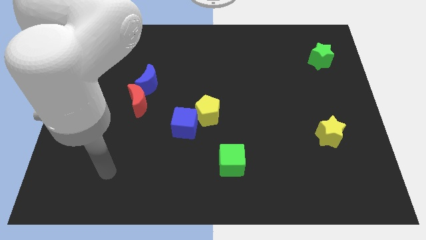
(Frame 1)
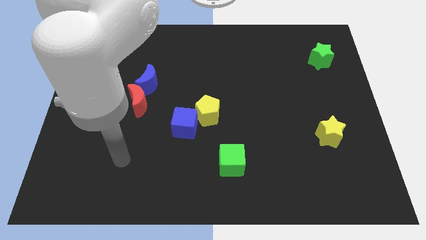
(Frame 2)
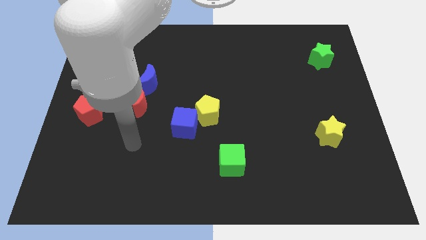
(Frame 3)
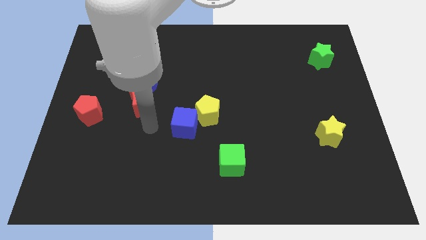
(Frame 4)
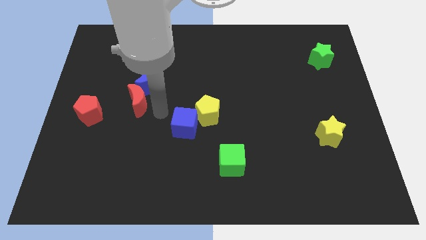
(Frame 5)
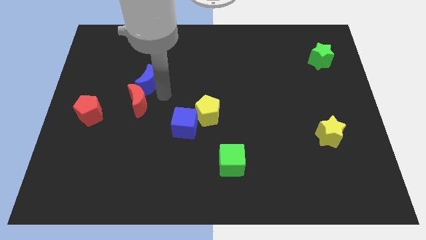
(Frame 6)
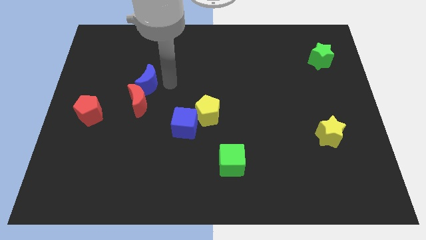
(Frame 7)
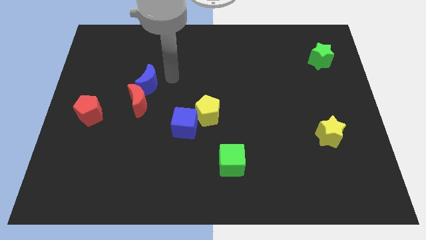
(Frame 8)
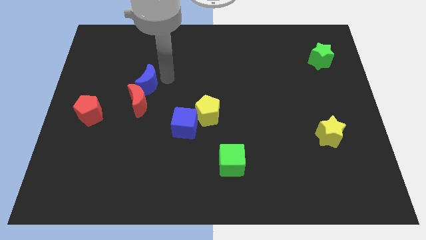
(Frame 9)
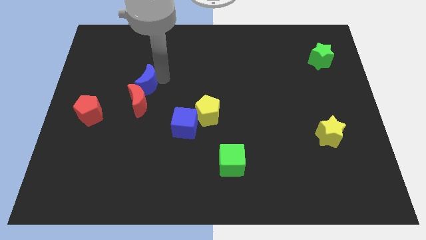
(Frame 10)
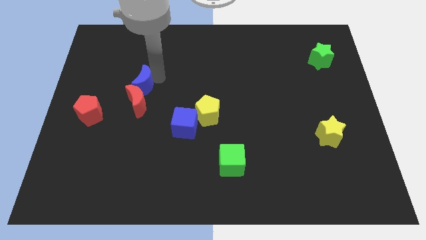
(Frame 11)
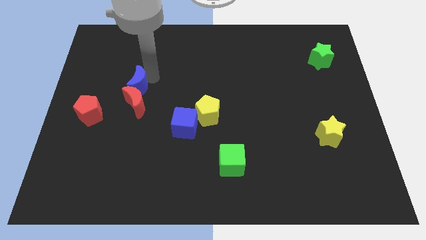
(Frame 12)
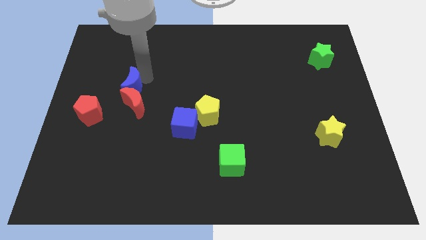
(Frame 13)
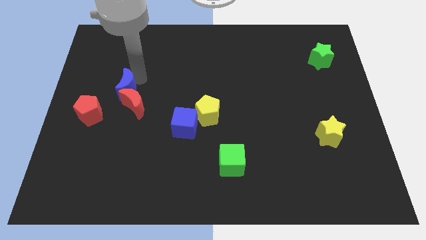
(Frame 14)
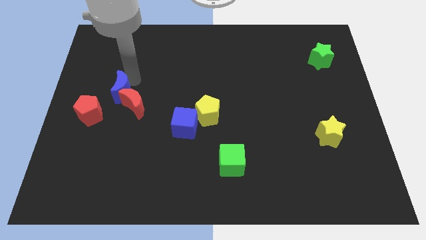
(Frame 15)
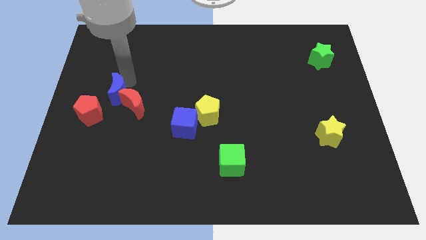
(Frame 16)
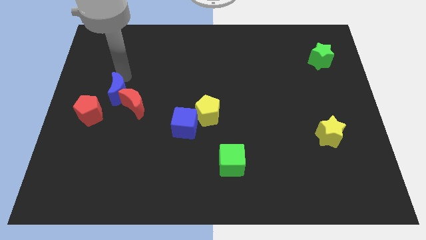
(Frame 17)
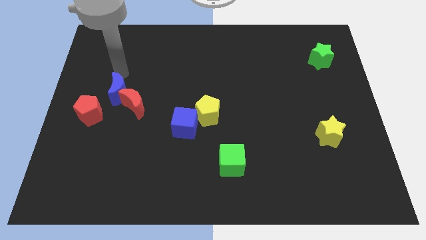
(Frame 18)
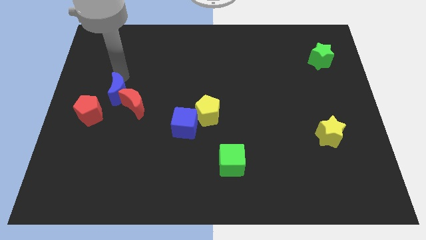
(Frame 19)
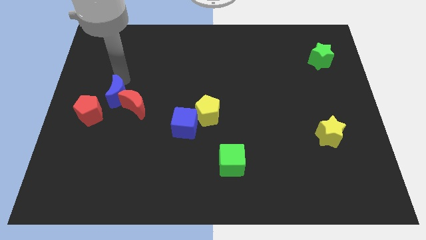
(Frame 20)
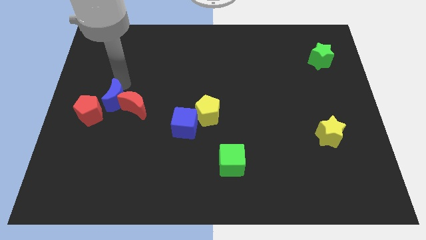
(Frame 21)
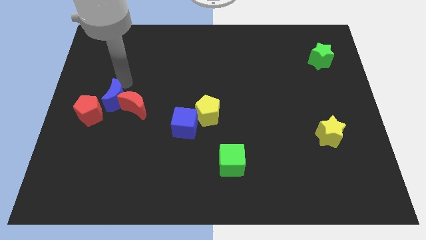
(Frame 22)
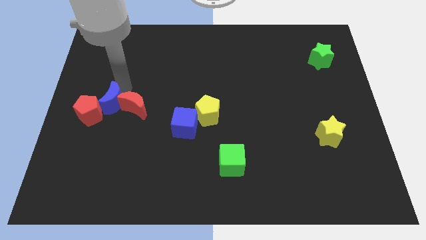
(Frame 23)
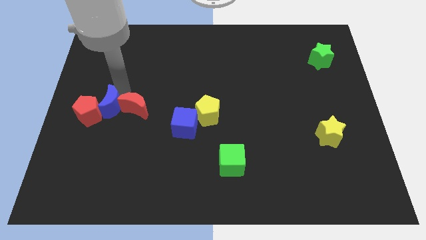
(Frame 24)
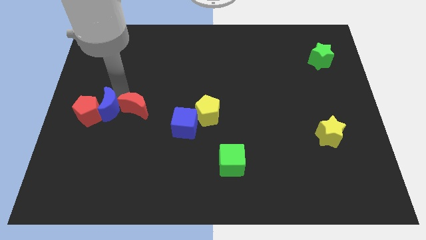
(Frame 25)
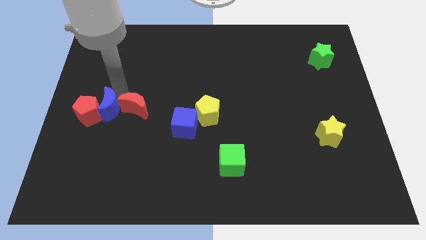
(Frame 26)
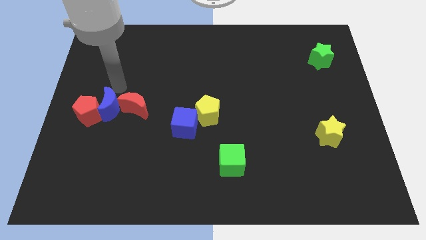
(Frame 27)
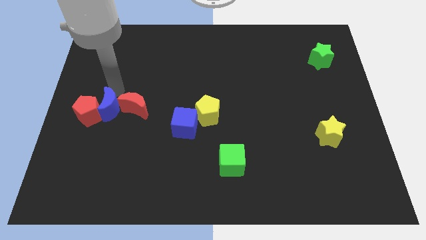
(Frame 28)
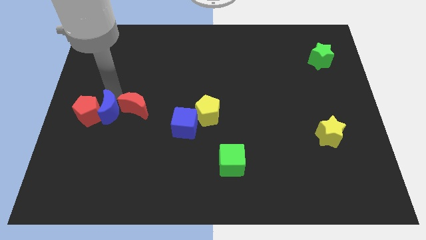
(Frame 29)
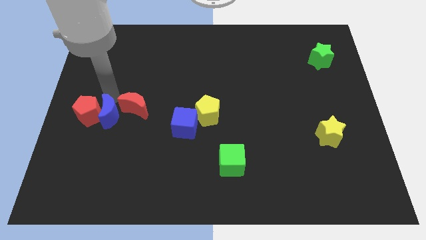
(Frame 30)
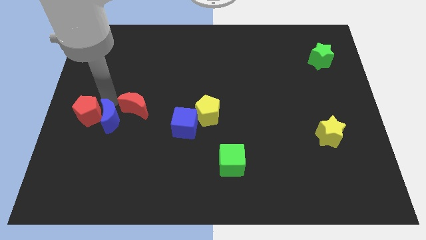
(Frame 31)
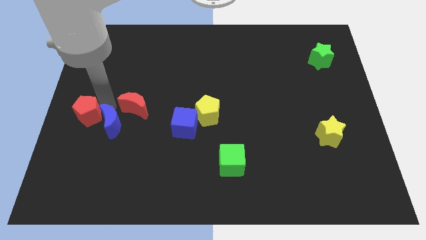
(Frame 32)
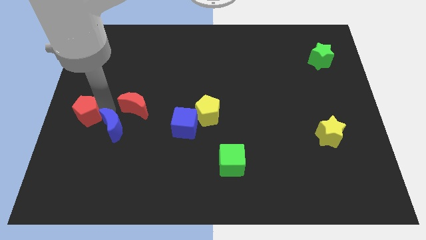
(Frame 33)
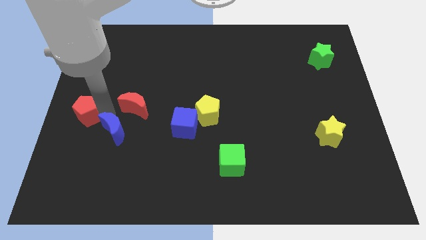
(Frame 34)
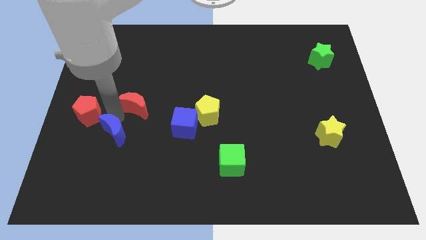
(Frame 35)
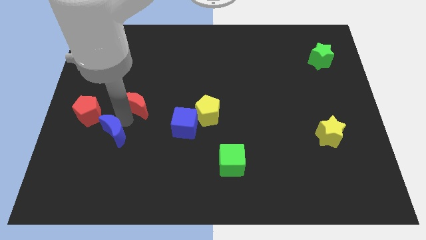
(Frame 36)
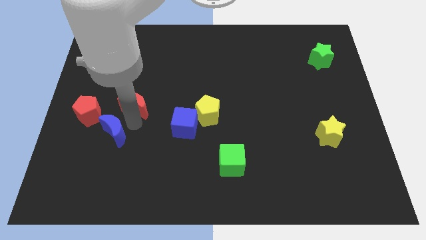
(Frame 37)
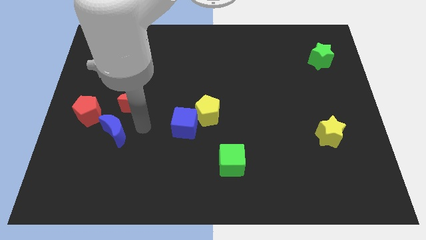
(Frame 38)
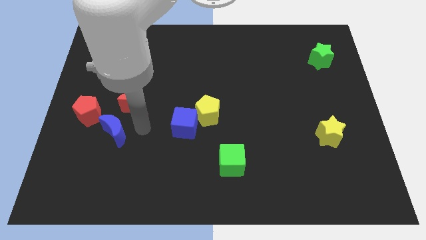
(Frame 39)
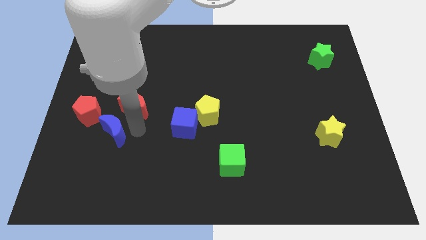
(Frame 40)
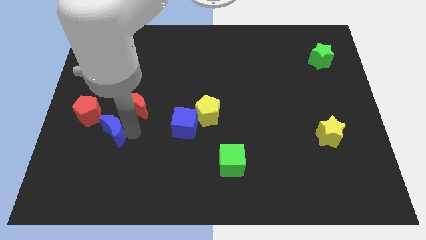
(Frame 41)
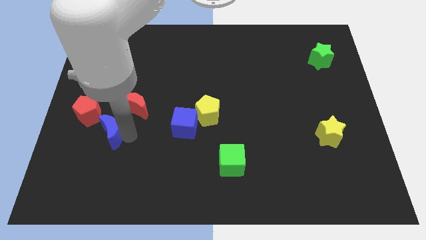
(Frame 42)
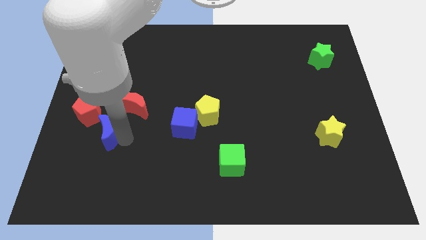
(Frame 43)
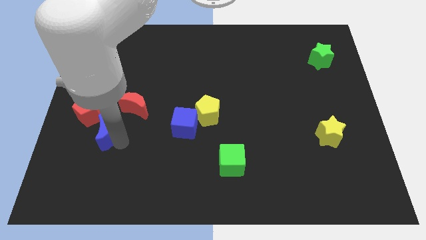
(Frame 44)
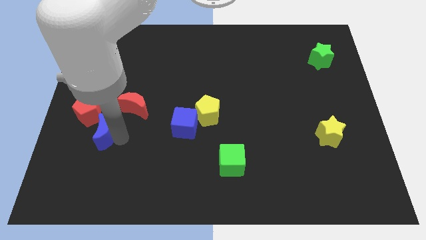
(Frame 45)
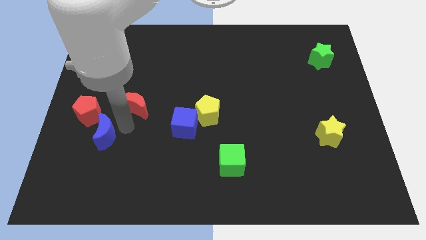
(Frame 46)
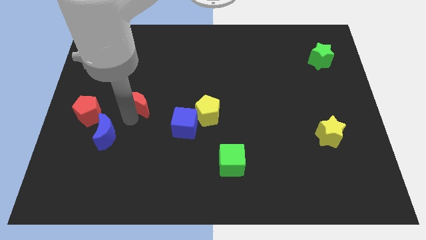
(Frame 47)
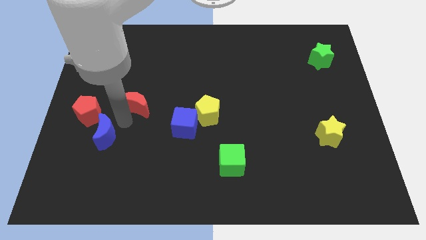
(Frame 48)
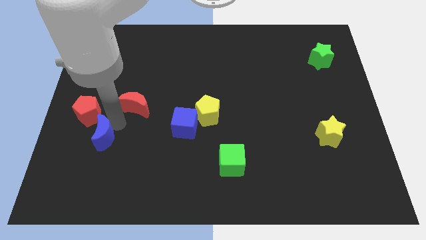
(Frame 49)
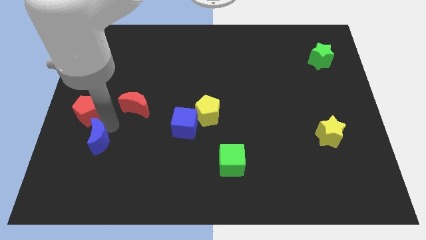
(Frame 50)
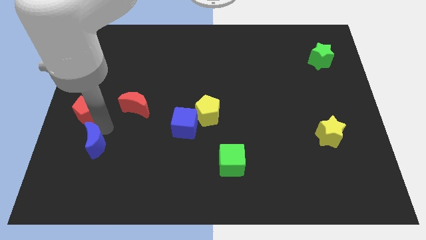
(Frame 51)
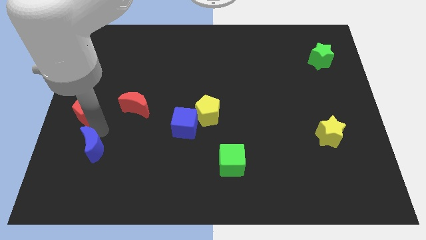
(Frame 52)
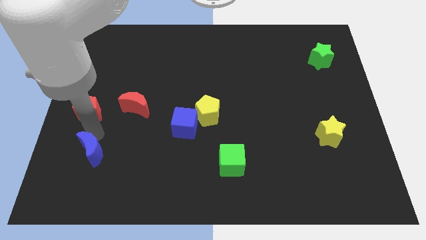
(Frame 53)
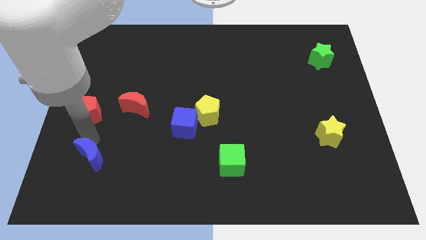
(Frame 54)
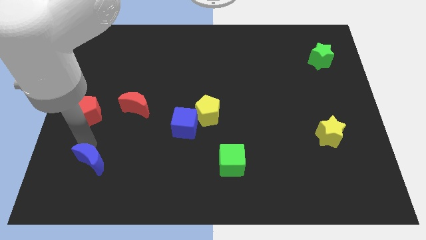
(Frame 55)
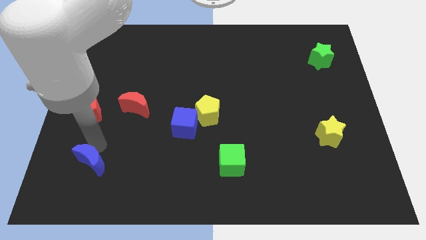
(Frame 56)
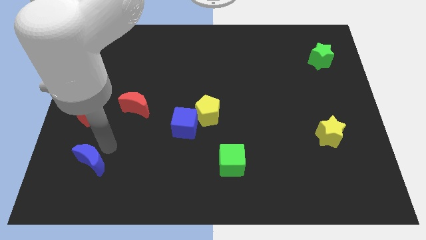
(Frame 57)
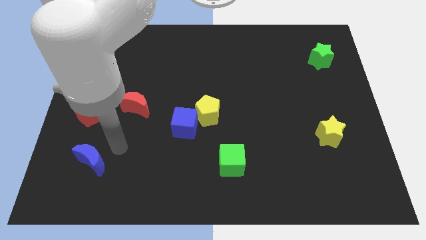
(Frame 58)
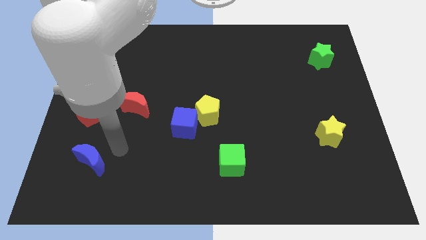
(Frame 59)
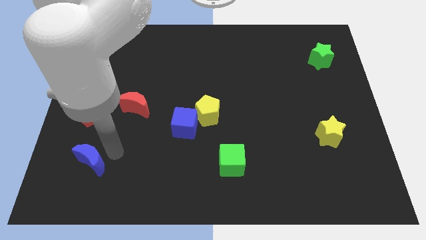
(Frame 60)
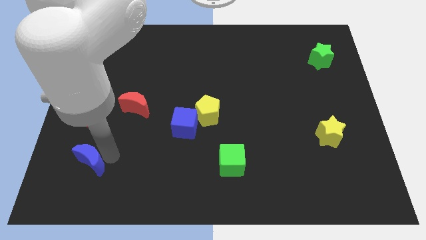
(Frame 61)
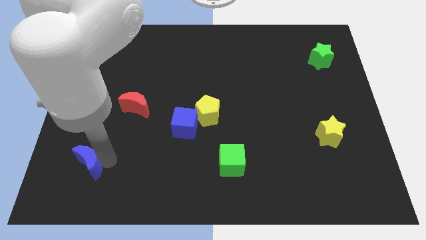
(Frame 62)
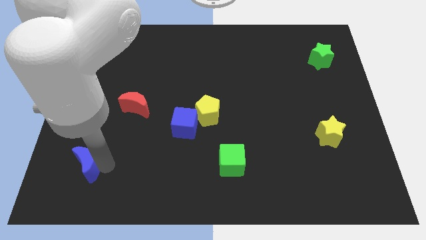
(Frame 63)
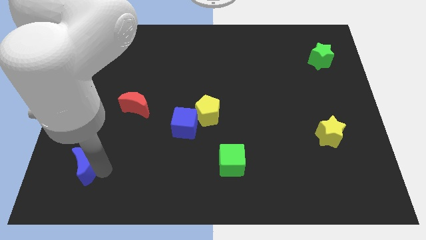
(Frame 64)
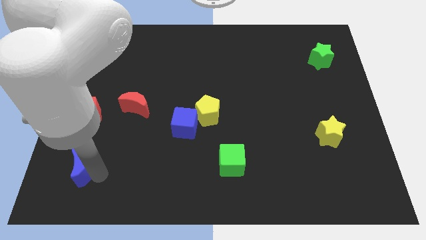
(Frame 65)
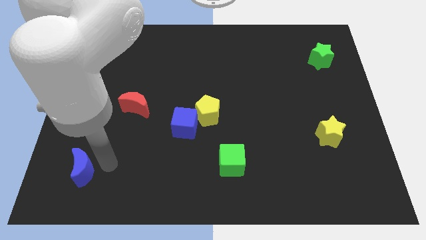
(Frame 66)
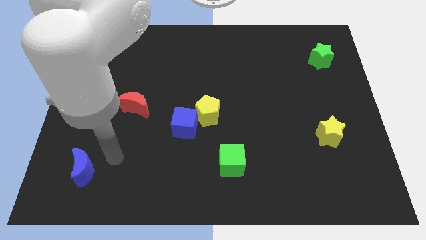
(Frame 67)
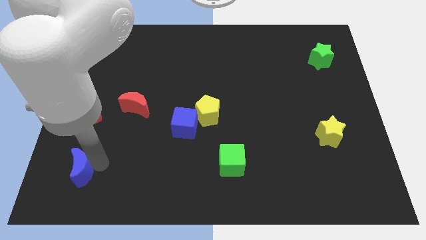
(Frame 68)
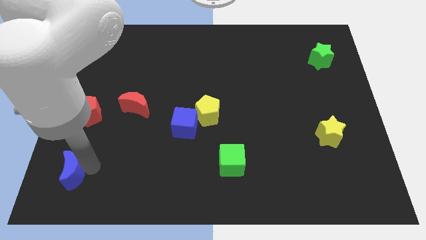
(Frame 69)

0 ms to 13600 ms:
move the blue moon to the bottom left
